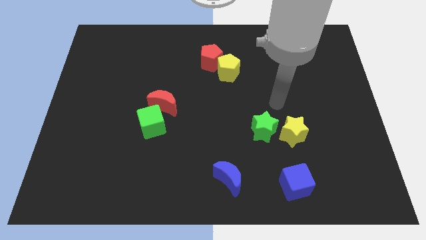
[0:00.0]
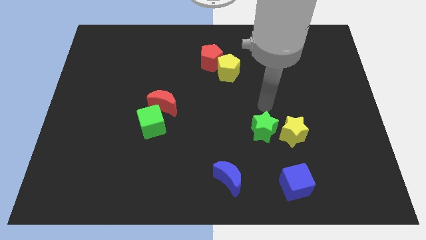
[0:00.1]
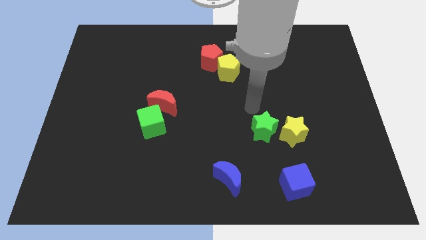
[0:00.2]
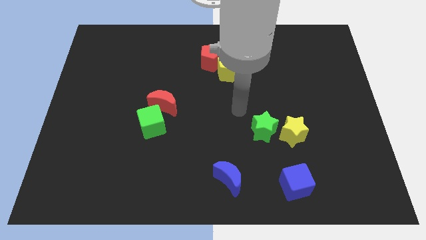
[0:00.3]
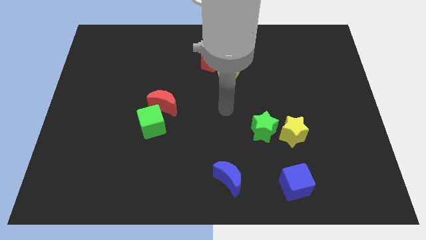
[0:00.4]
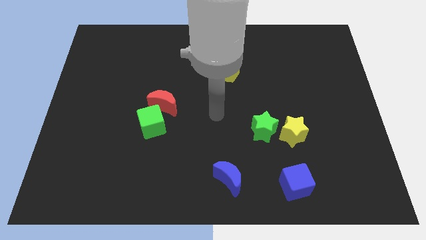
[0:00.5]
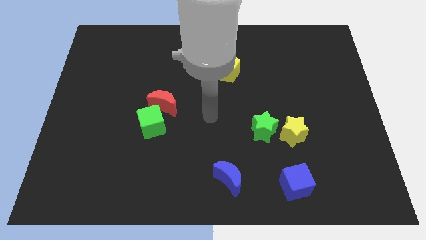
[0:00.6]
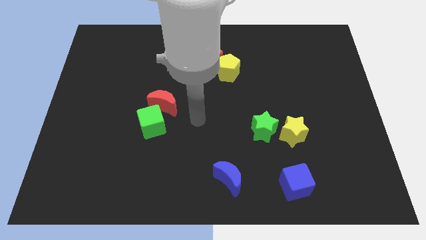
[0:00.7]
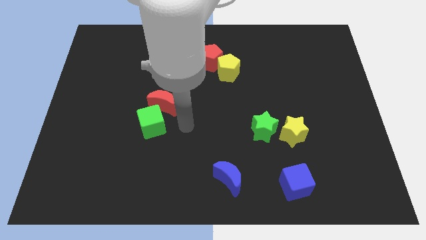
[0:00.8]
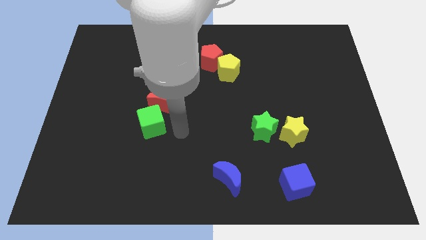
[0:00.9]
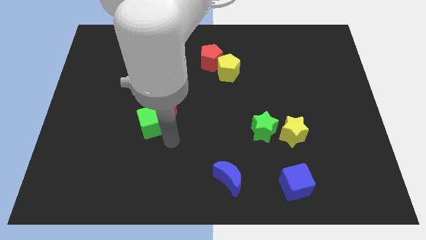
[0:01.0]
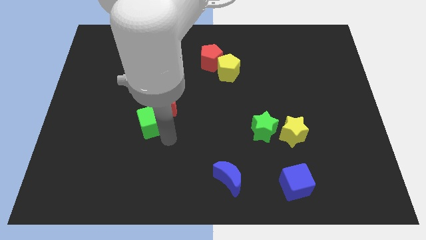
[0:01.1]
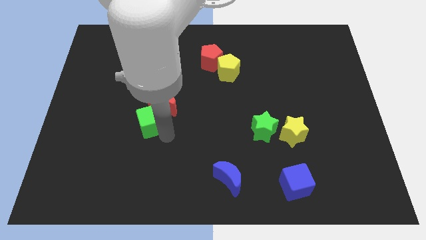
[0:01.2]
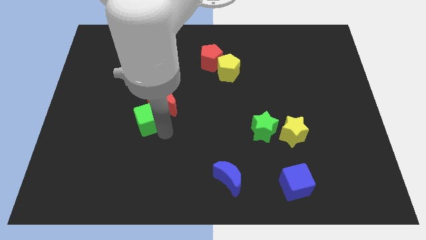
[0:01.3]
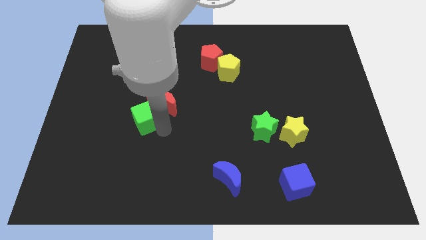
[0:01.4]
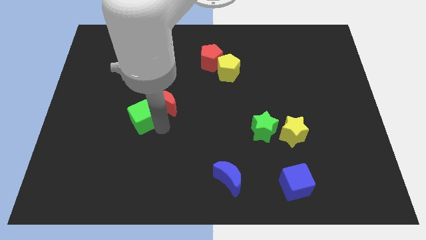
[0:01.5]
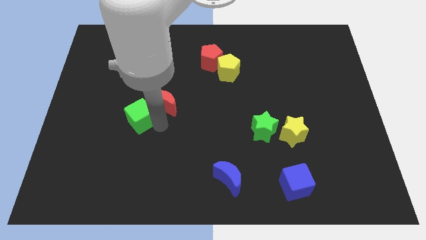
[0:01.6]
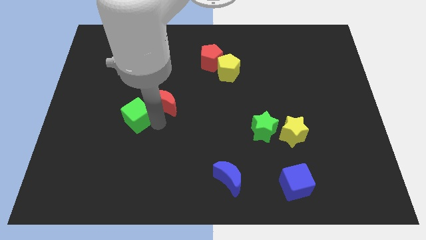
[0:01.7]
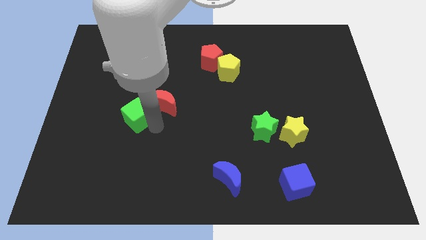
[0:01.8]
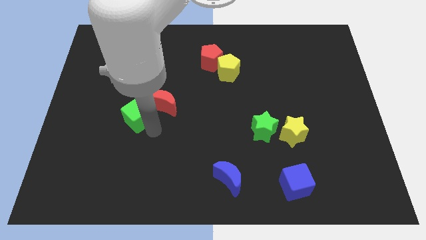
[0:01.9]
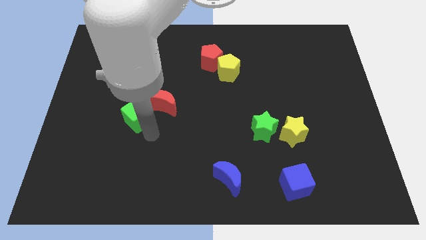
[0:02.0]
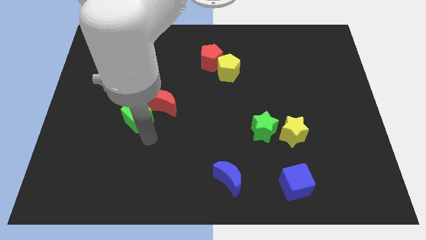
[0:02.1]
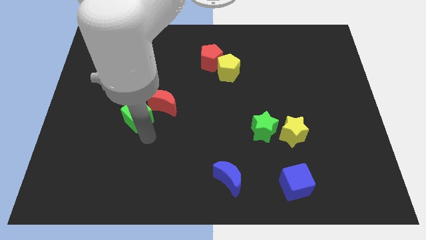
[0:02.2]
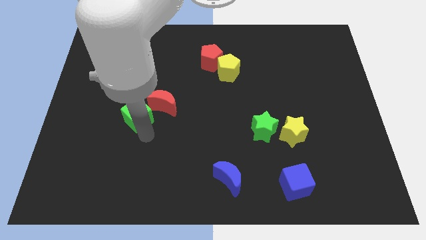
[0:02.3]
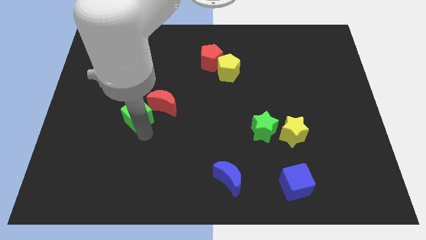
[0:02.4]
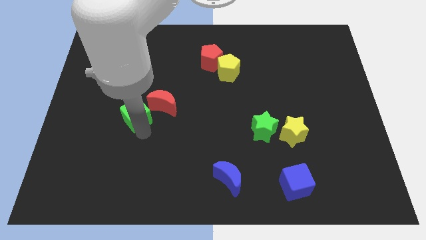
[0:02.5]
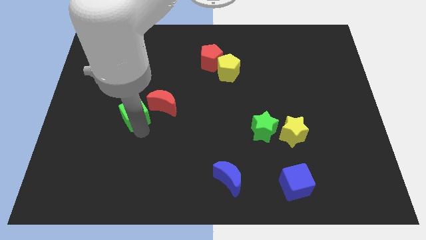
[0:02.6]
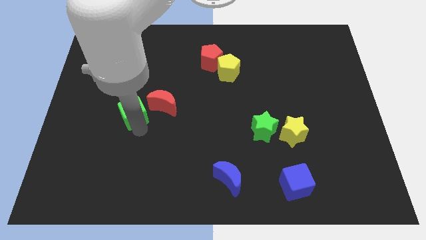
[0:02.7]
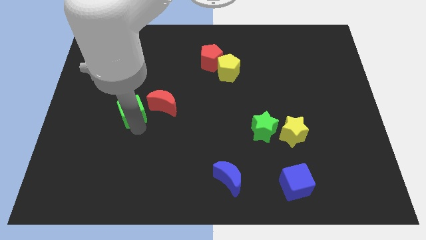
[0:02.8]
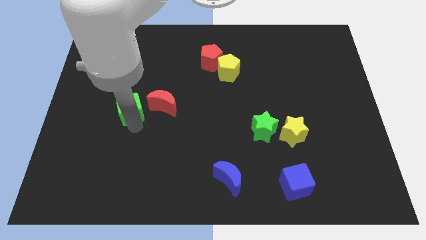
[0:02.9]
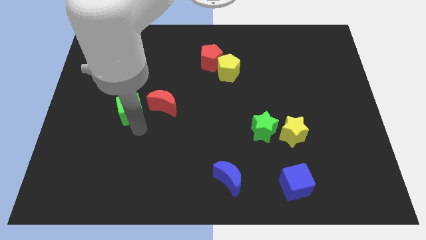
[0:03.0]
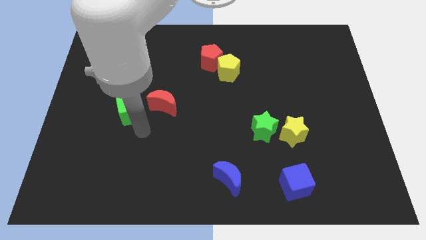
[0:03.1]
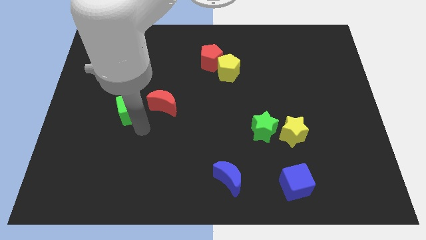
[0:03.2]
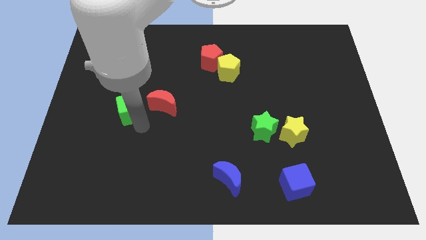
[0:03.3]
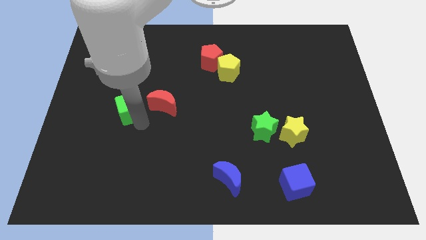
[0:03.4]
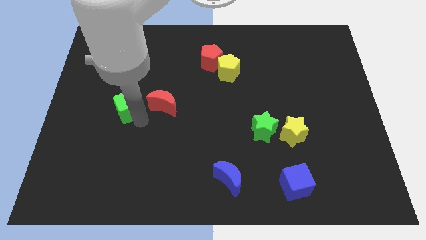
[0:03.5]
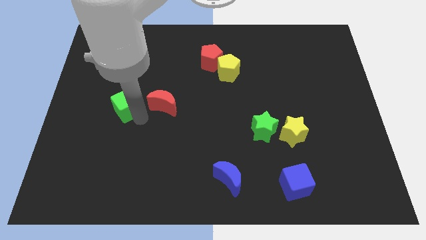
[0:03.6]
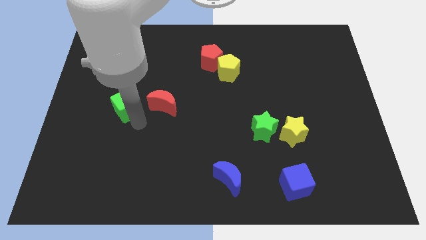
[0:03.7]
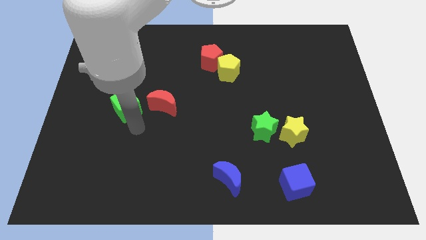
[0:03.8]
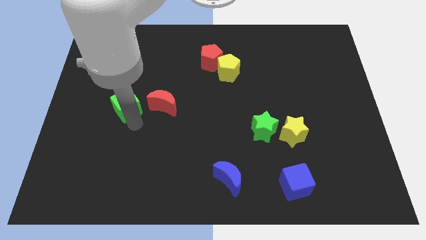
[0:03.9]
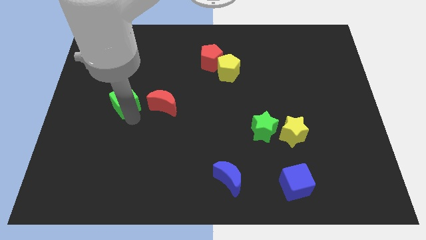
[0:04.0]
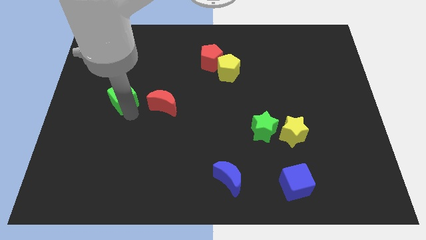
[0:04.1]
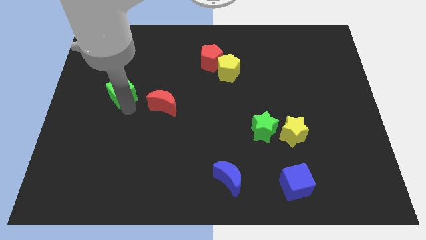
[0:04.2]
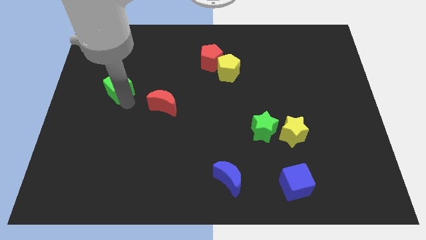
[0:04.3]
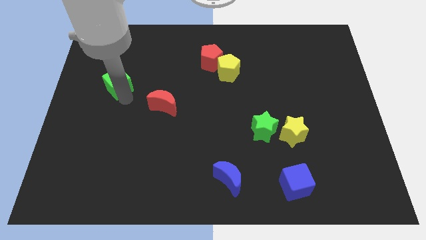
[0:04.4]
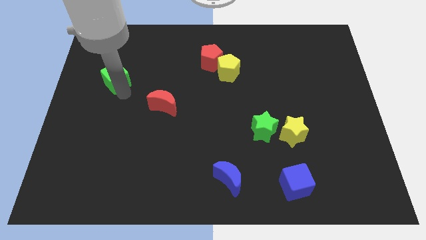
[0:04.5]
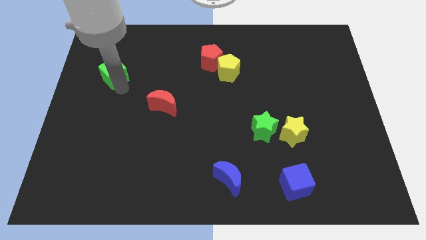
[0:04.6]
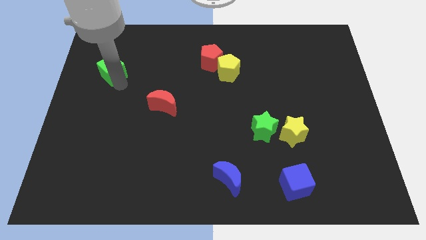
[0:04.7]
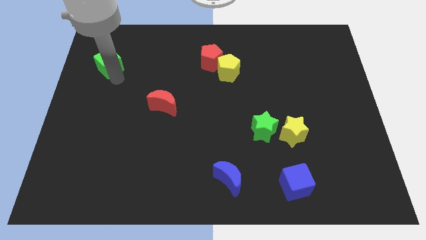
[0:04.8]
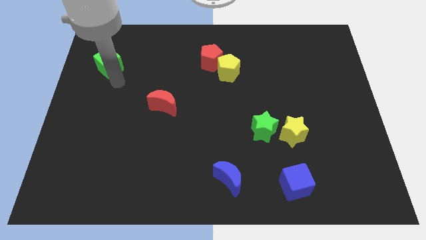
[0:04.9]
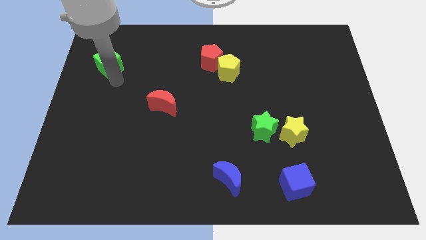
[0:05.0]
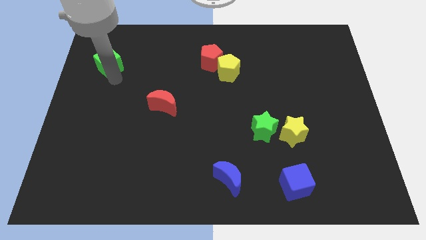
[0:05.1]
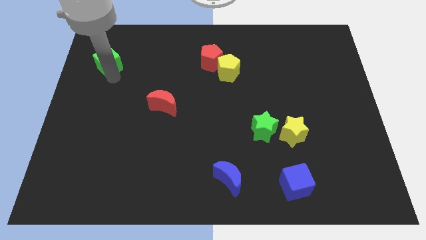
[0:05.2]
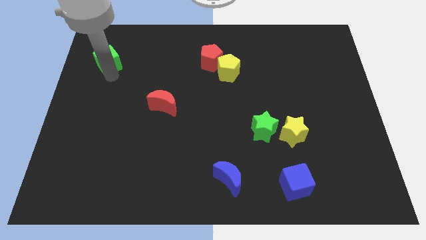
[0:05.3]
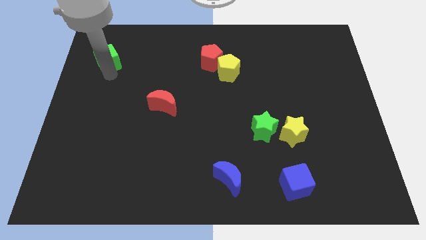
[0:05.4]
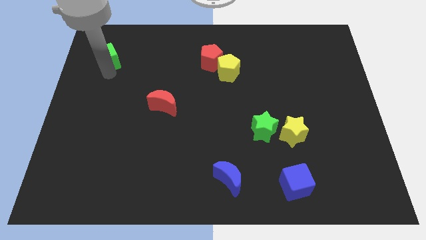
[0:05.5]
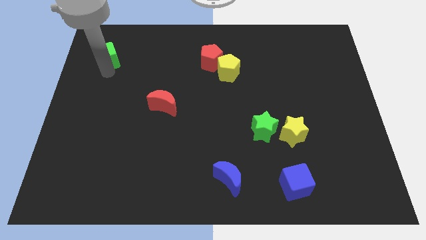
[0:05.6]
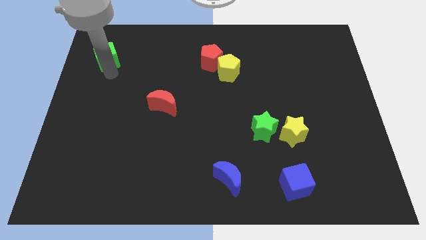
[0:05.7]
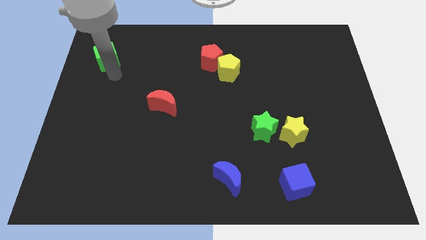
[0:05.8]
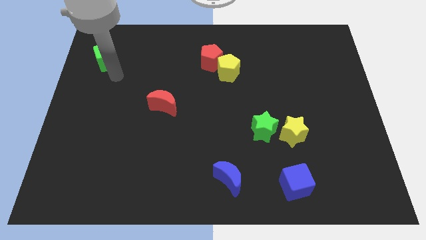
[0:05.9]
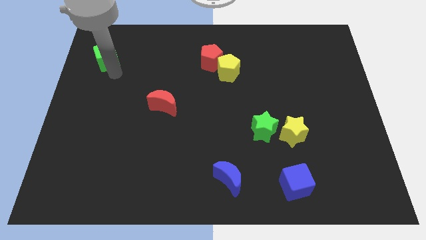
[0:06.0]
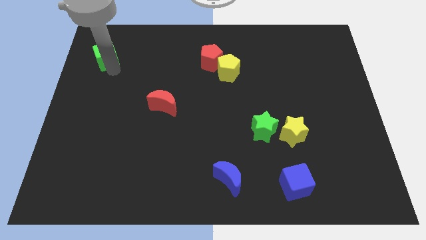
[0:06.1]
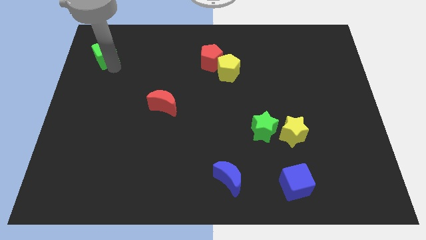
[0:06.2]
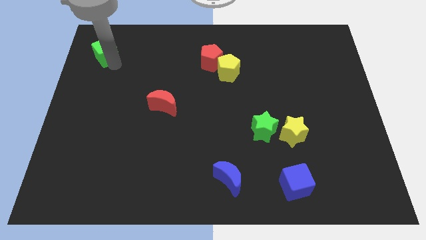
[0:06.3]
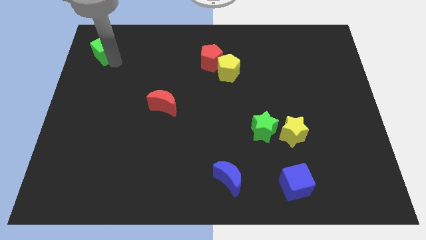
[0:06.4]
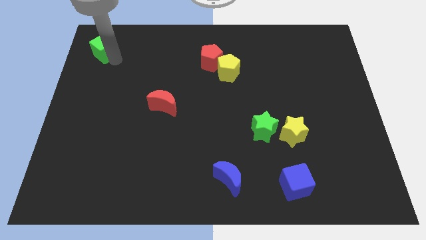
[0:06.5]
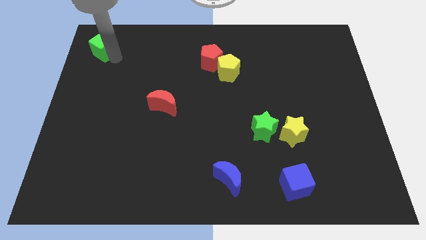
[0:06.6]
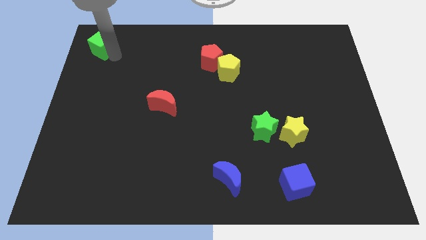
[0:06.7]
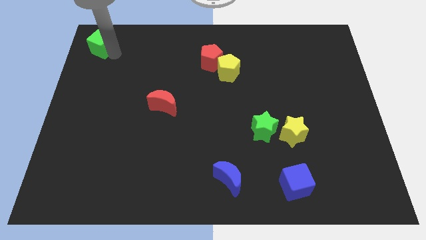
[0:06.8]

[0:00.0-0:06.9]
slide the green cube to the top left

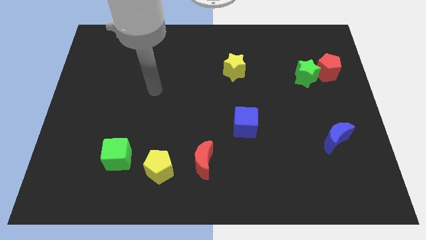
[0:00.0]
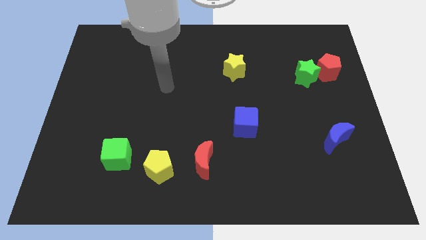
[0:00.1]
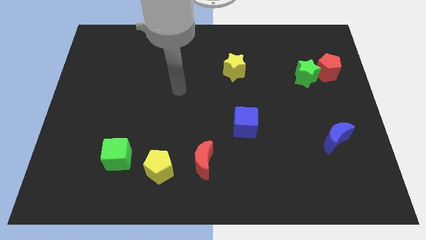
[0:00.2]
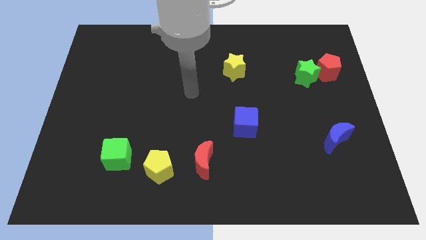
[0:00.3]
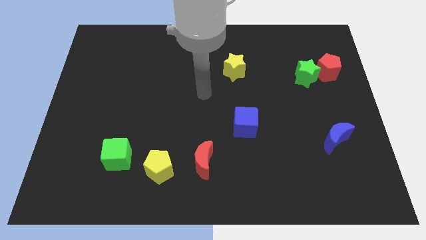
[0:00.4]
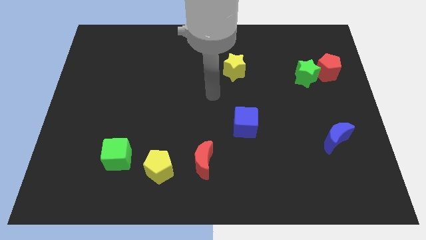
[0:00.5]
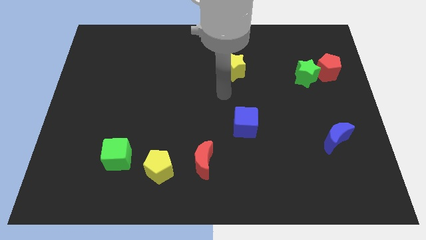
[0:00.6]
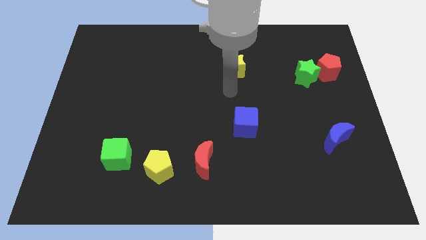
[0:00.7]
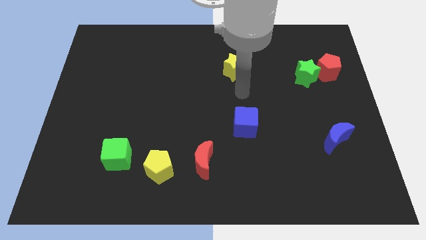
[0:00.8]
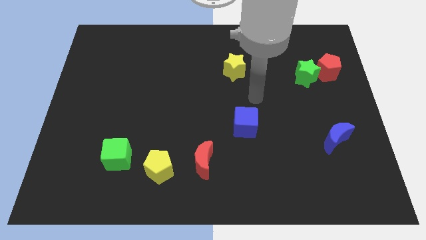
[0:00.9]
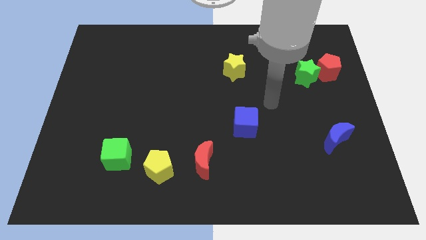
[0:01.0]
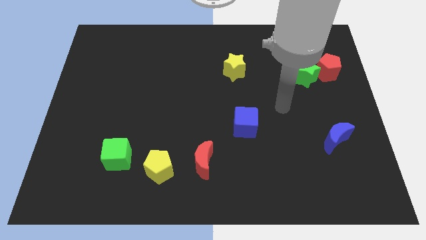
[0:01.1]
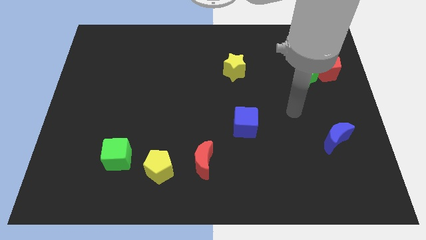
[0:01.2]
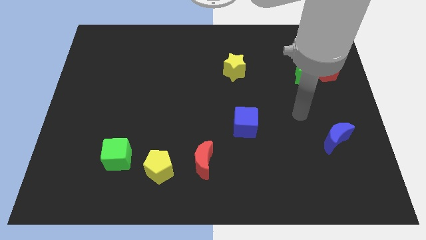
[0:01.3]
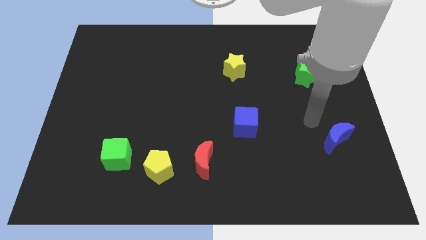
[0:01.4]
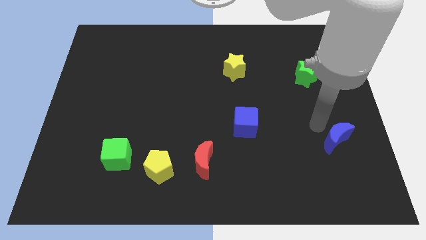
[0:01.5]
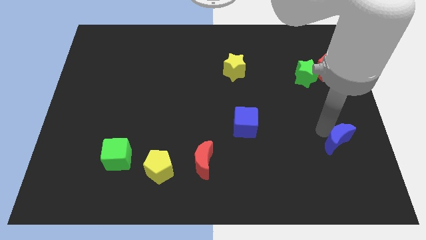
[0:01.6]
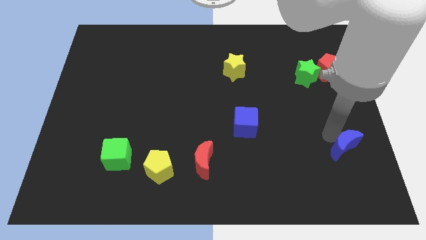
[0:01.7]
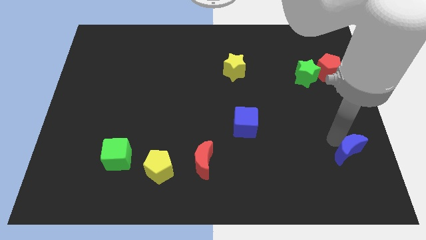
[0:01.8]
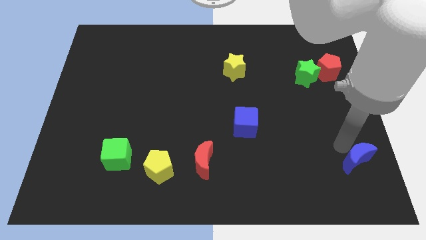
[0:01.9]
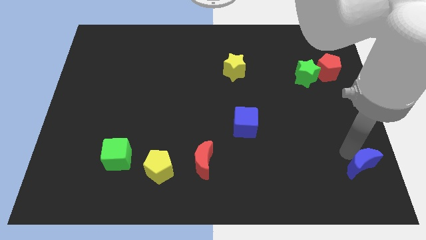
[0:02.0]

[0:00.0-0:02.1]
put the blue moon to the lower right corner
